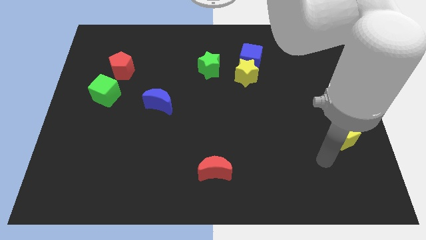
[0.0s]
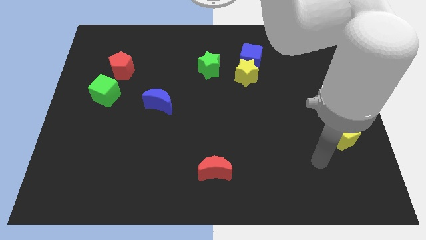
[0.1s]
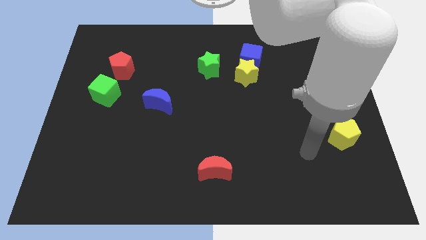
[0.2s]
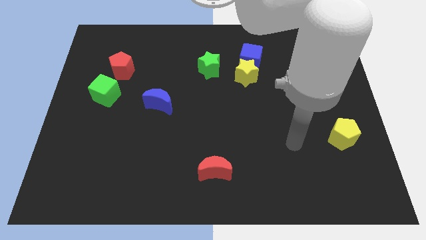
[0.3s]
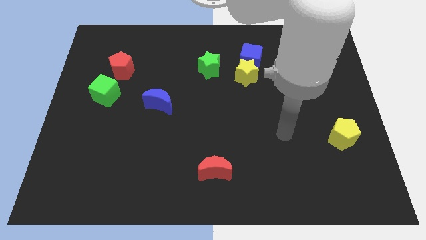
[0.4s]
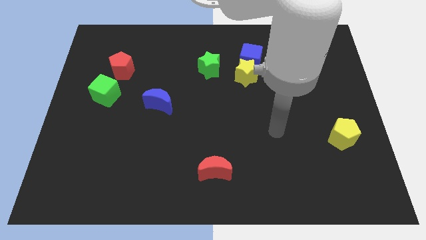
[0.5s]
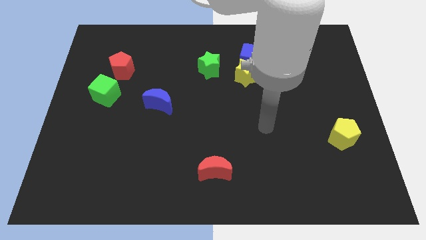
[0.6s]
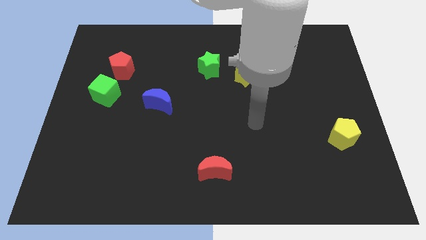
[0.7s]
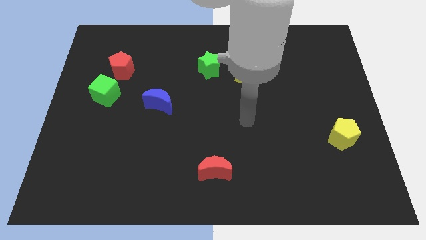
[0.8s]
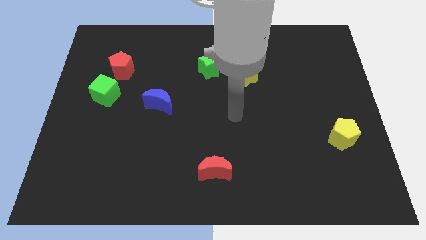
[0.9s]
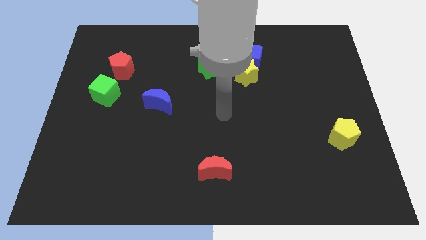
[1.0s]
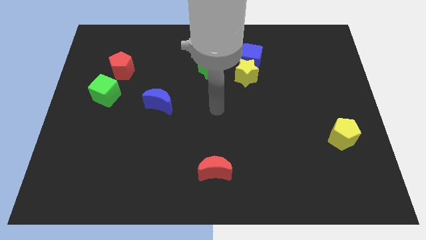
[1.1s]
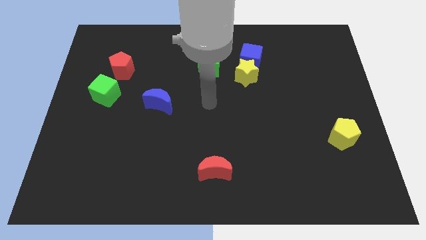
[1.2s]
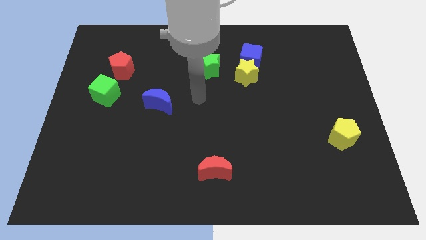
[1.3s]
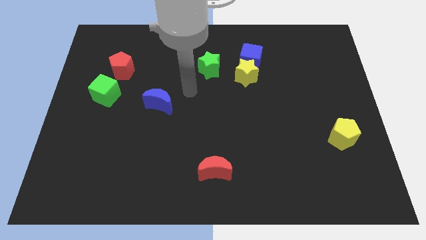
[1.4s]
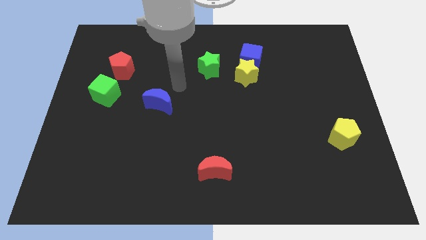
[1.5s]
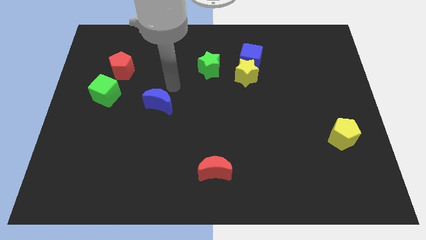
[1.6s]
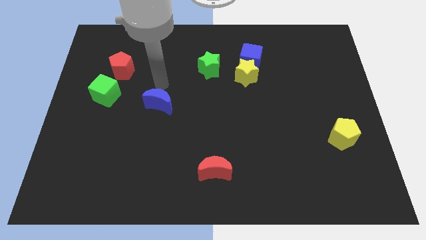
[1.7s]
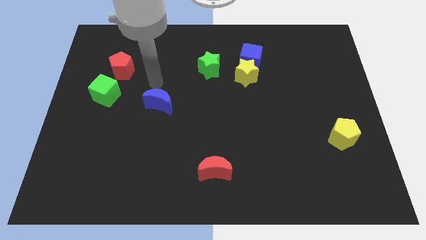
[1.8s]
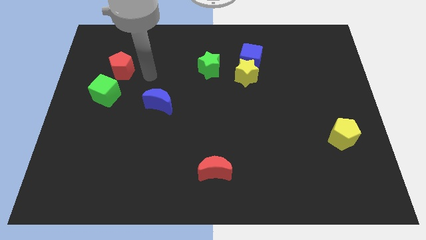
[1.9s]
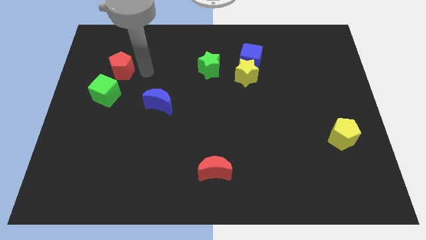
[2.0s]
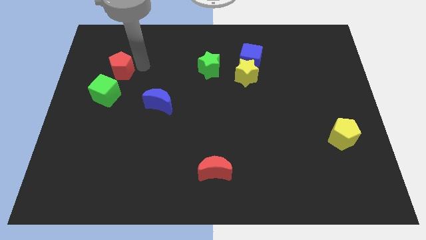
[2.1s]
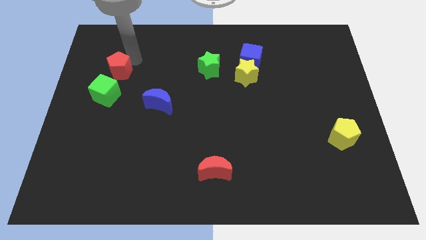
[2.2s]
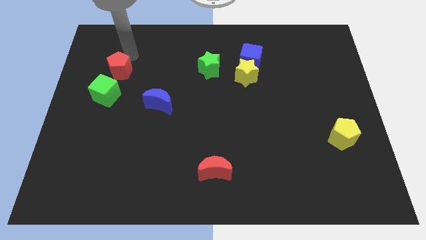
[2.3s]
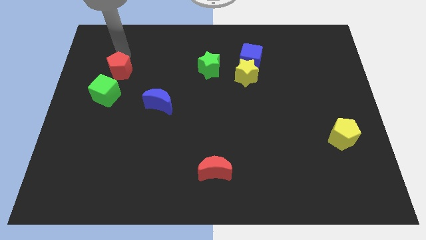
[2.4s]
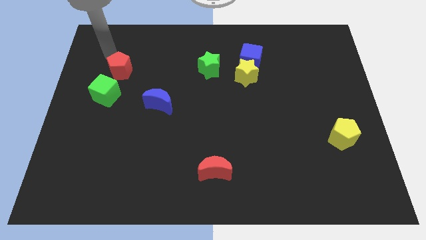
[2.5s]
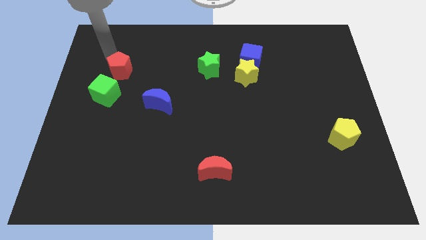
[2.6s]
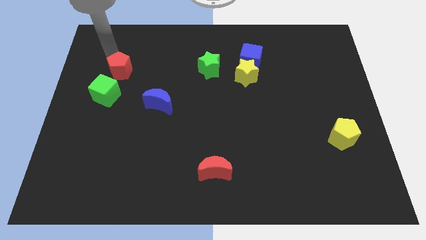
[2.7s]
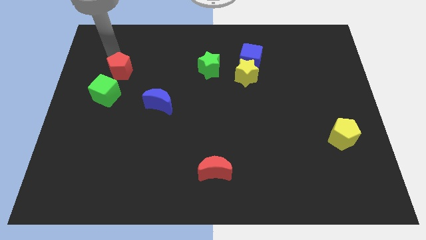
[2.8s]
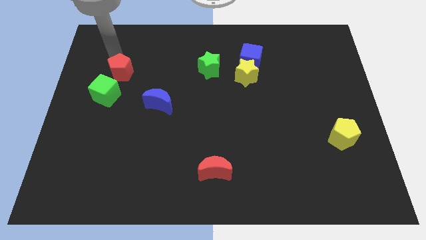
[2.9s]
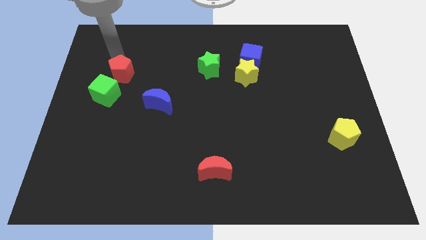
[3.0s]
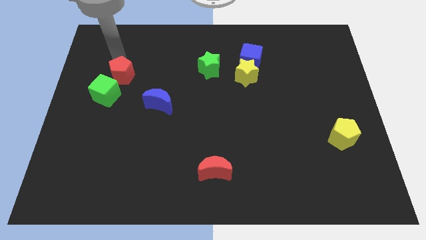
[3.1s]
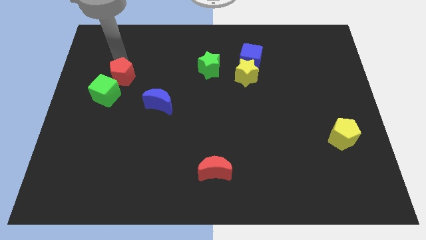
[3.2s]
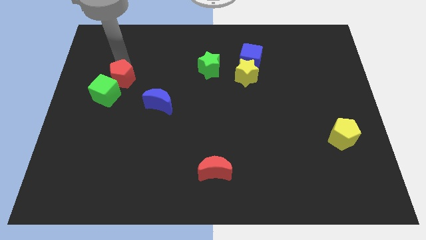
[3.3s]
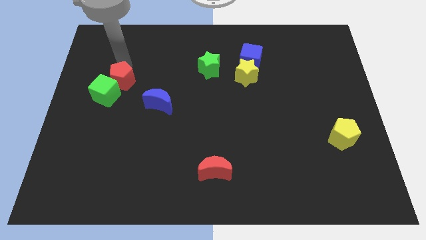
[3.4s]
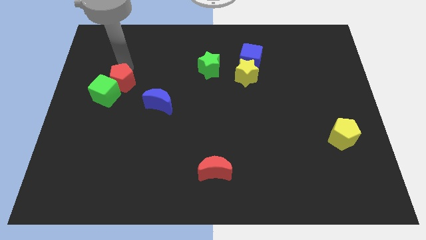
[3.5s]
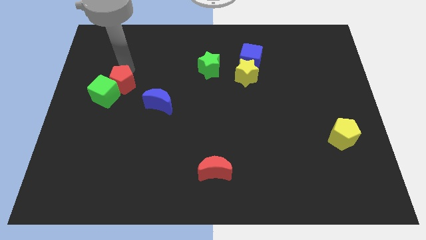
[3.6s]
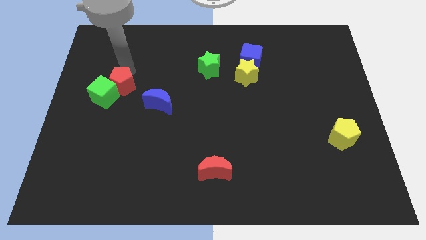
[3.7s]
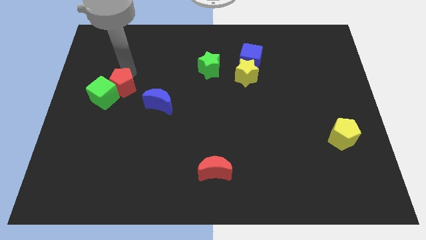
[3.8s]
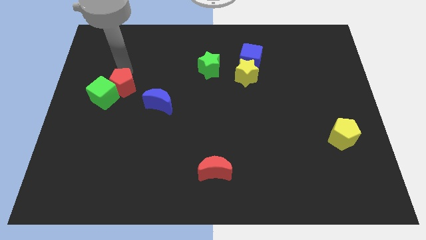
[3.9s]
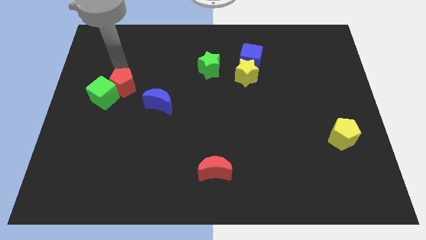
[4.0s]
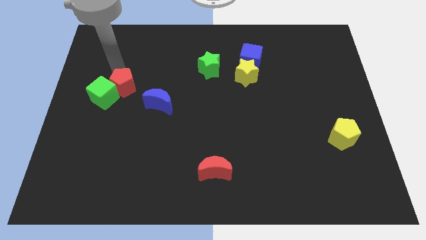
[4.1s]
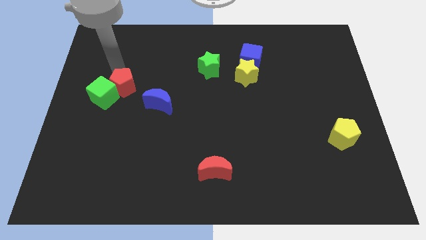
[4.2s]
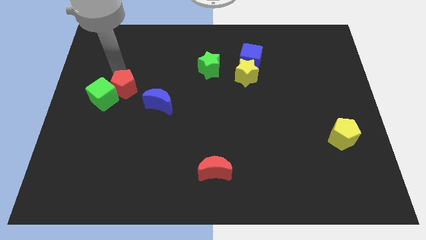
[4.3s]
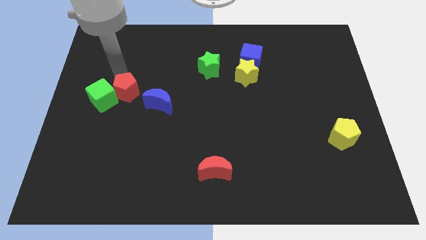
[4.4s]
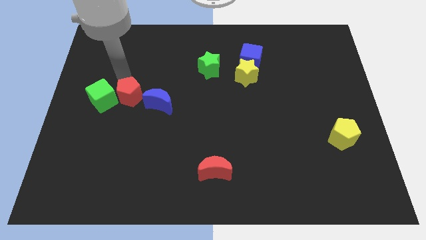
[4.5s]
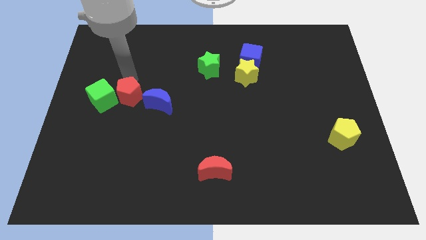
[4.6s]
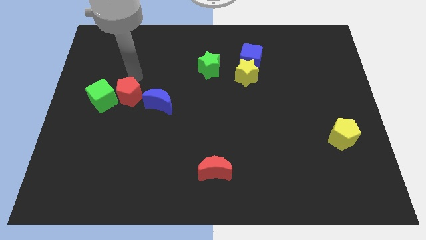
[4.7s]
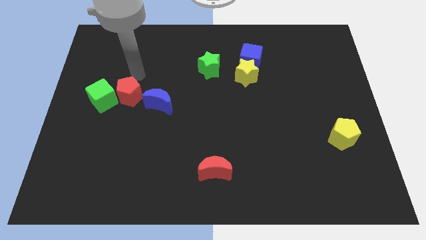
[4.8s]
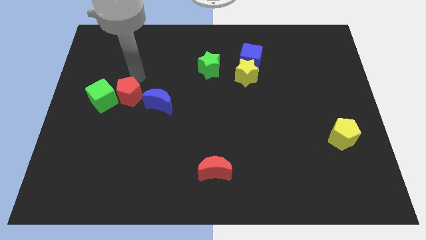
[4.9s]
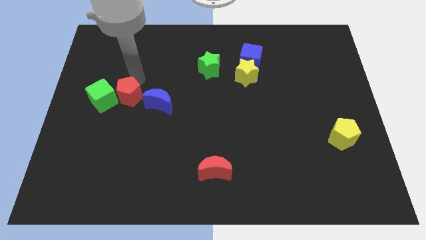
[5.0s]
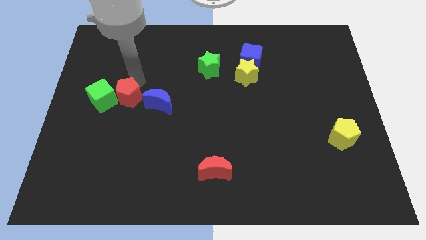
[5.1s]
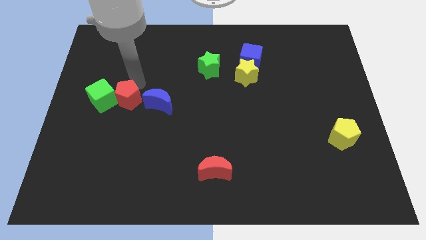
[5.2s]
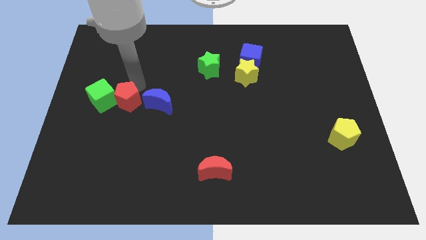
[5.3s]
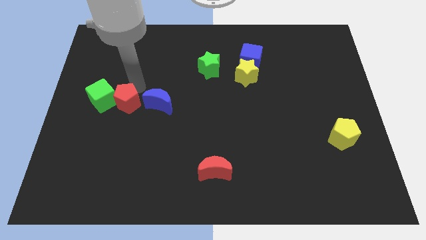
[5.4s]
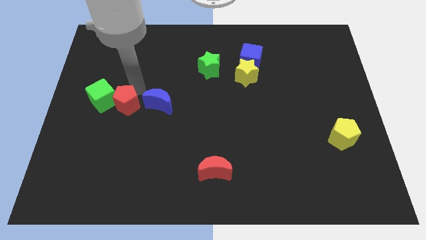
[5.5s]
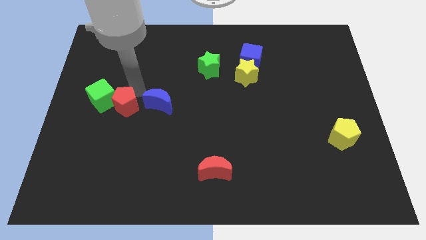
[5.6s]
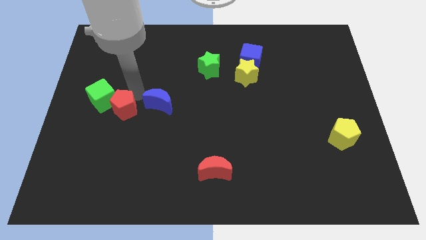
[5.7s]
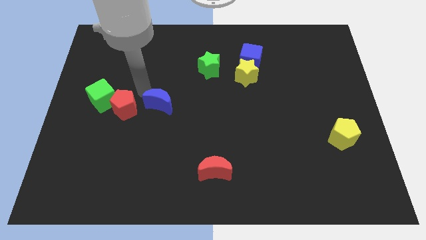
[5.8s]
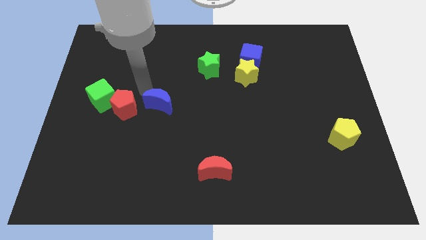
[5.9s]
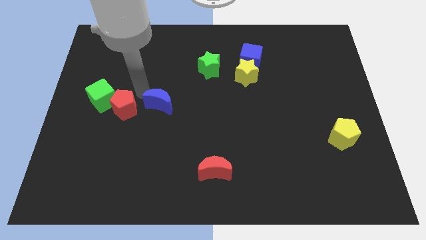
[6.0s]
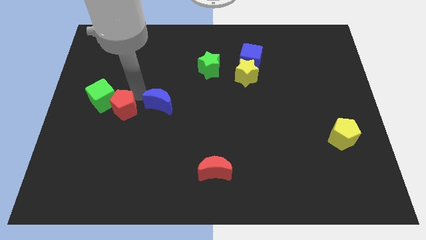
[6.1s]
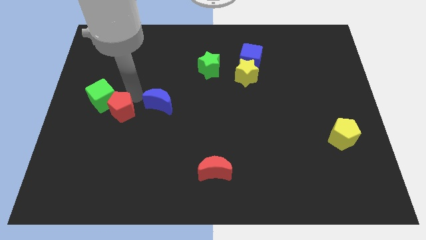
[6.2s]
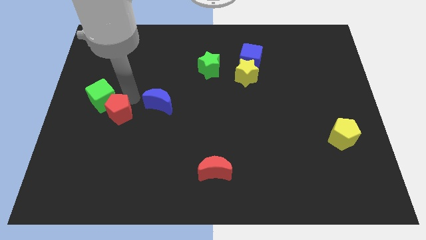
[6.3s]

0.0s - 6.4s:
move the red pentagon to the bottom of the green cube
